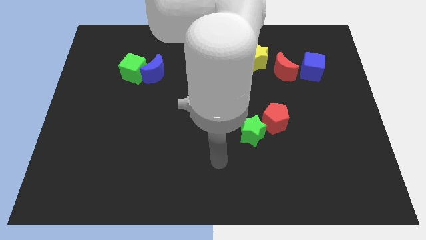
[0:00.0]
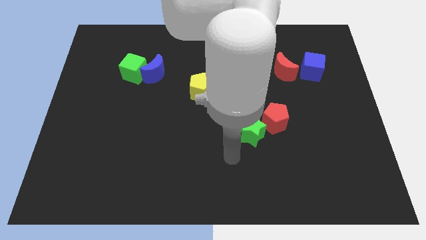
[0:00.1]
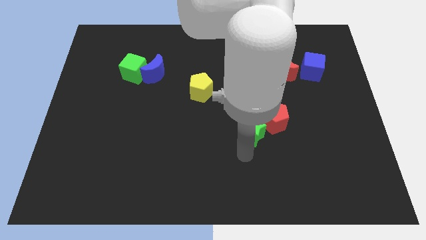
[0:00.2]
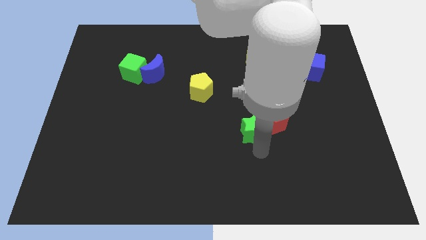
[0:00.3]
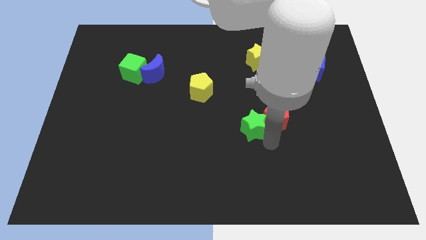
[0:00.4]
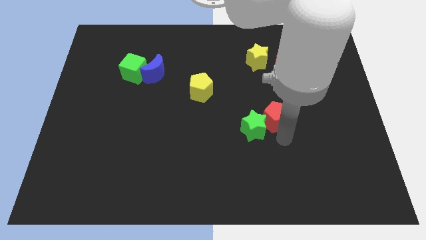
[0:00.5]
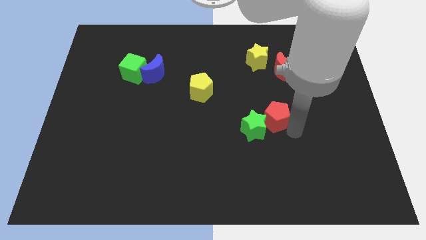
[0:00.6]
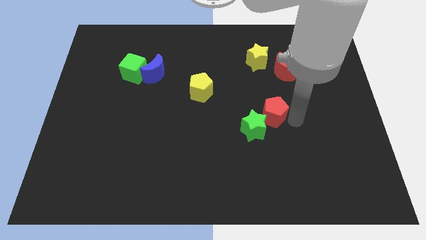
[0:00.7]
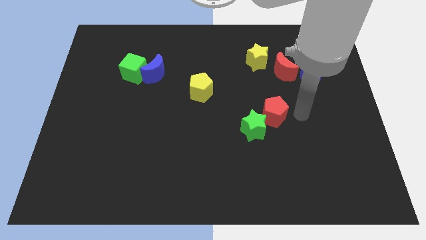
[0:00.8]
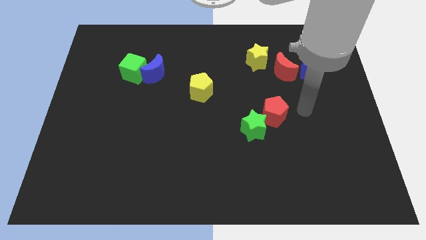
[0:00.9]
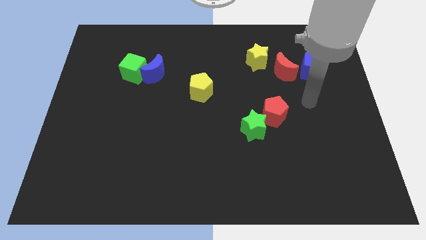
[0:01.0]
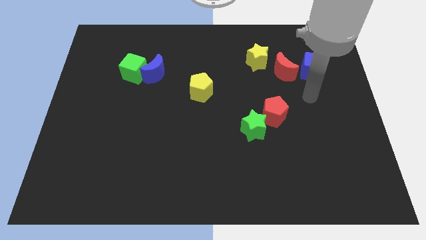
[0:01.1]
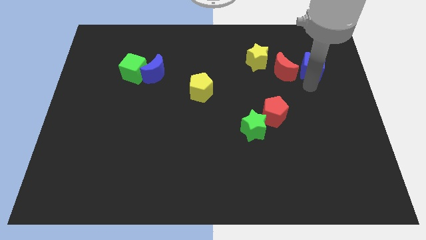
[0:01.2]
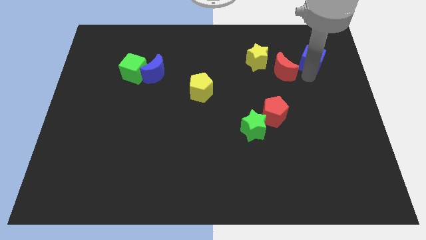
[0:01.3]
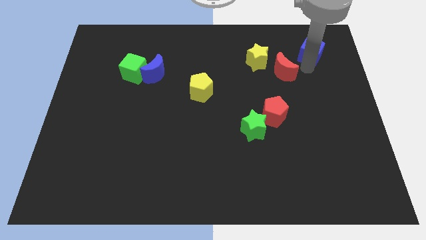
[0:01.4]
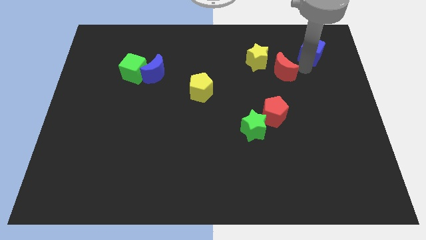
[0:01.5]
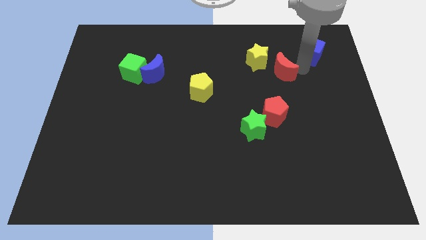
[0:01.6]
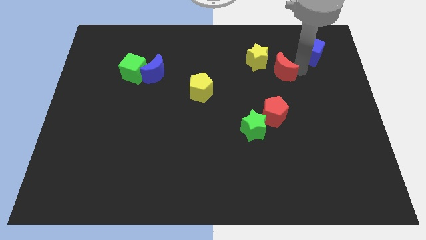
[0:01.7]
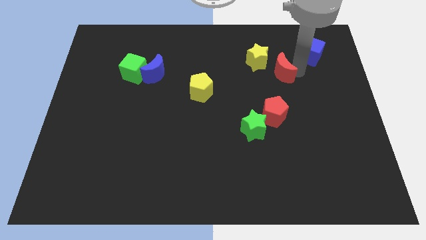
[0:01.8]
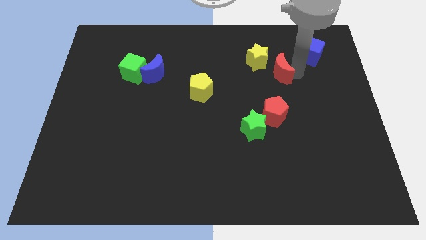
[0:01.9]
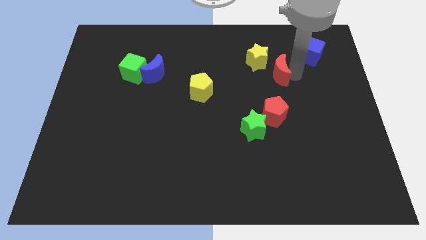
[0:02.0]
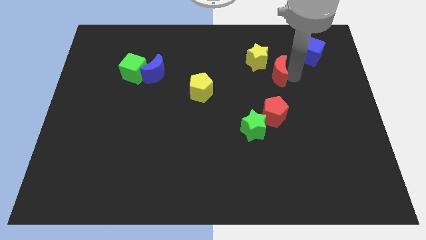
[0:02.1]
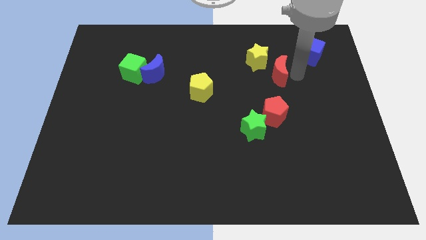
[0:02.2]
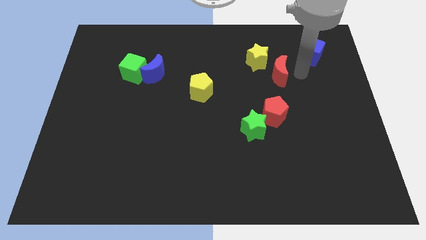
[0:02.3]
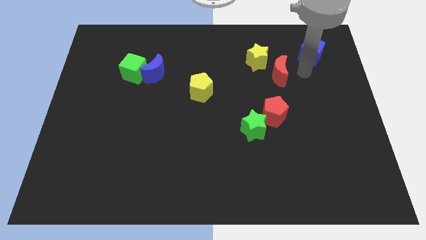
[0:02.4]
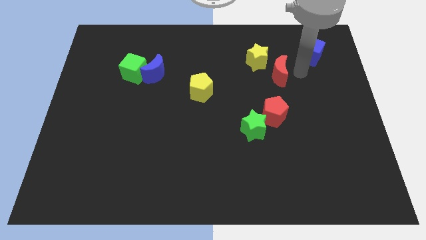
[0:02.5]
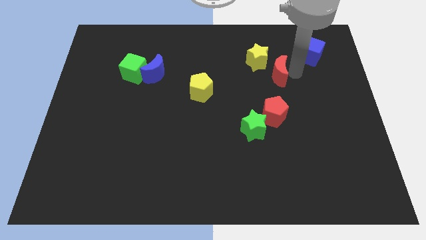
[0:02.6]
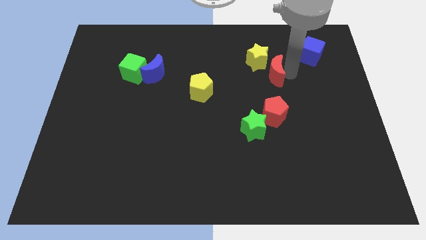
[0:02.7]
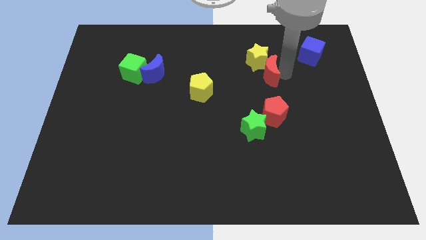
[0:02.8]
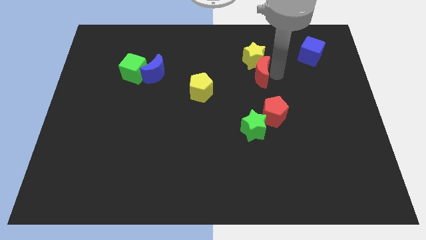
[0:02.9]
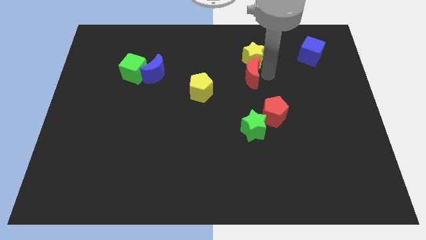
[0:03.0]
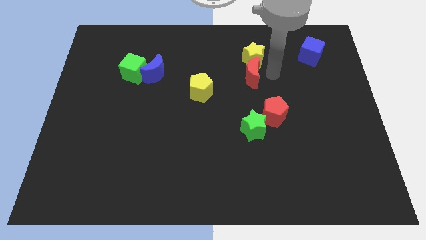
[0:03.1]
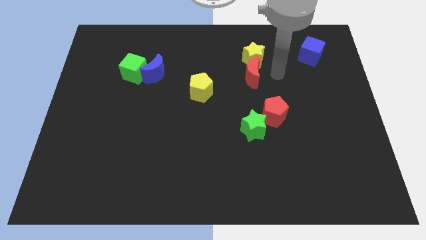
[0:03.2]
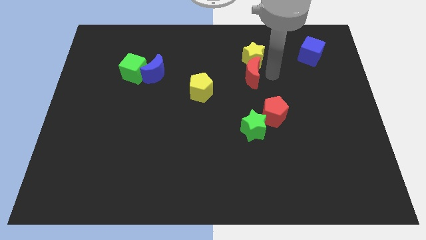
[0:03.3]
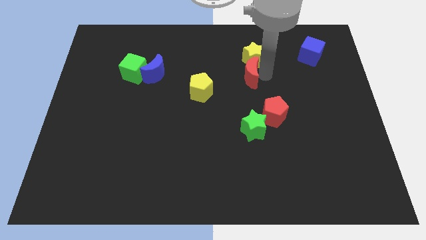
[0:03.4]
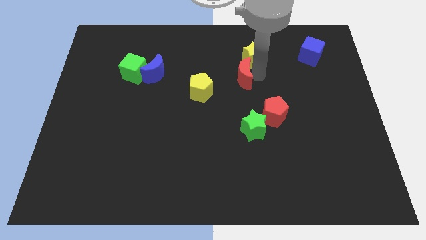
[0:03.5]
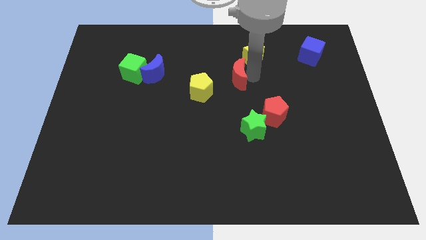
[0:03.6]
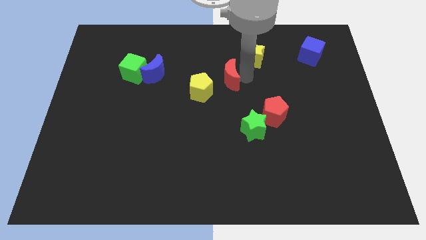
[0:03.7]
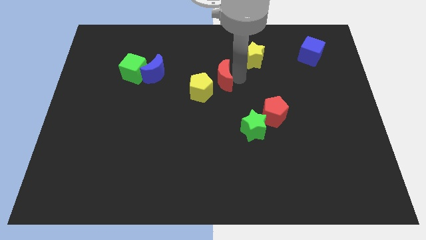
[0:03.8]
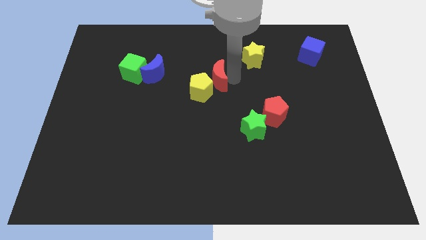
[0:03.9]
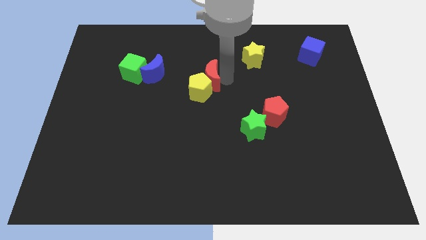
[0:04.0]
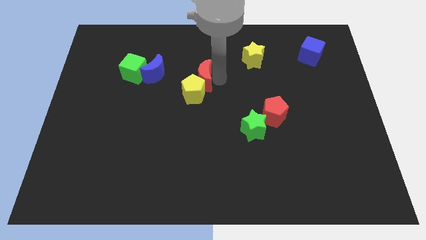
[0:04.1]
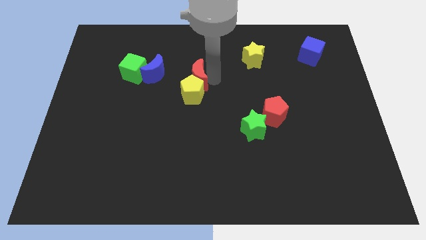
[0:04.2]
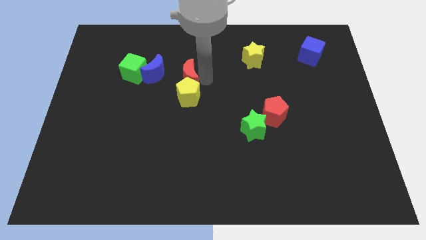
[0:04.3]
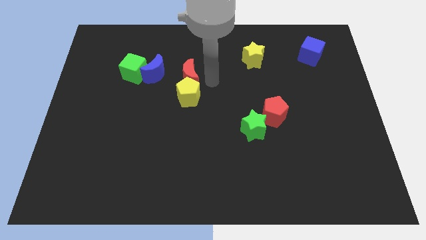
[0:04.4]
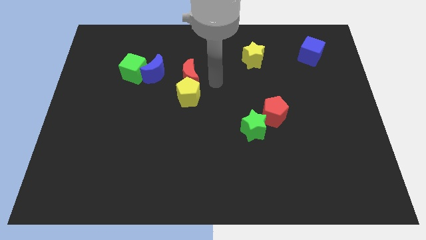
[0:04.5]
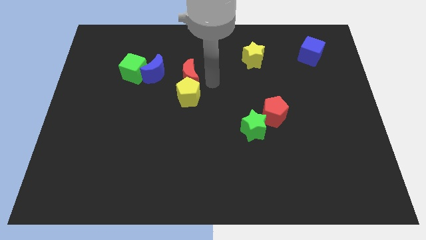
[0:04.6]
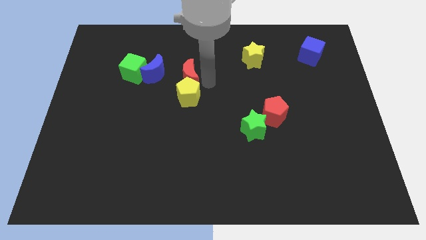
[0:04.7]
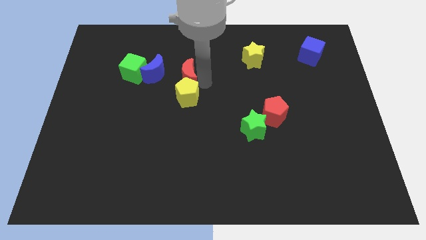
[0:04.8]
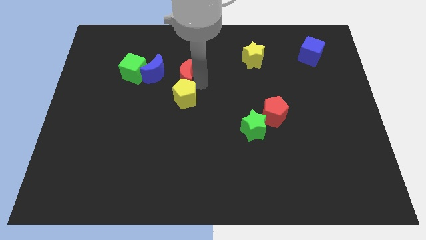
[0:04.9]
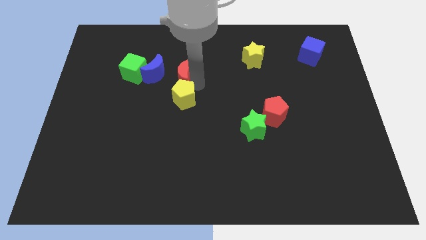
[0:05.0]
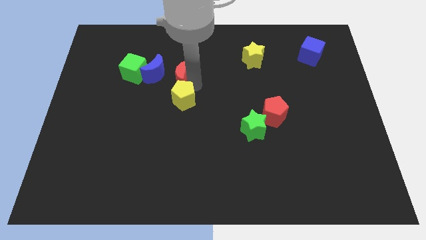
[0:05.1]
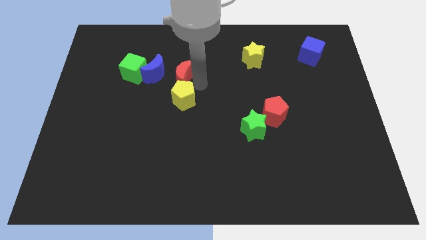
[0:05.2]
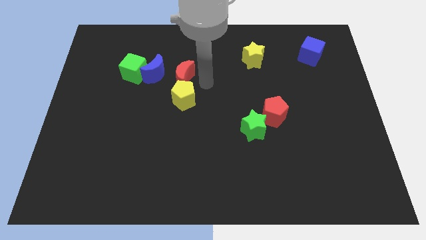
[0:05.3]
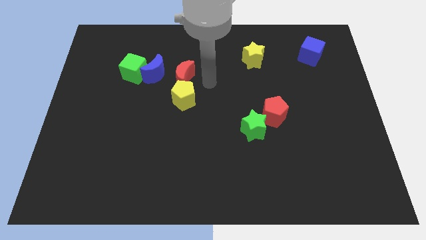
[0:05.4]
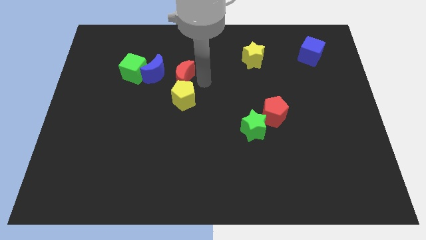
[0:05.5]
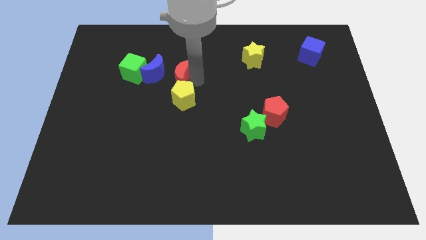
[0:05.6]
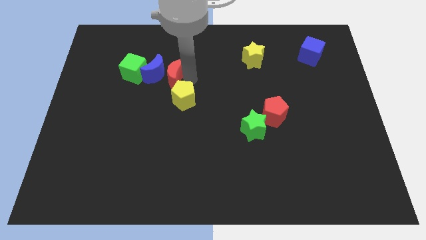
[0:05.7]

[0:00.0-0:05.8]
slide the red moon to the blue moon

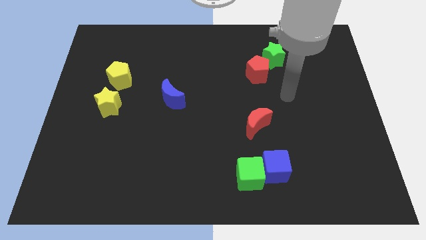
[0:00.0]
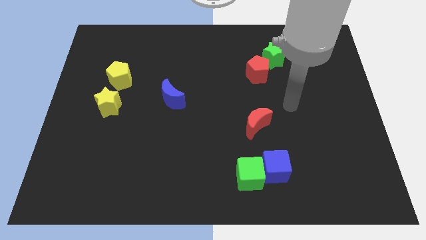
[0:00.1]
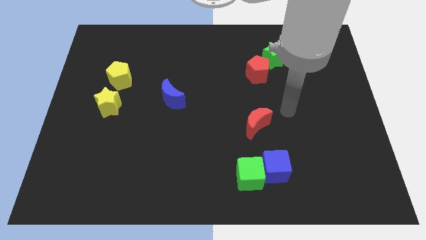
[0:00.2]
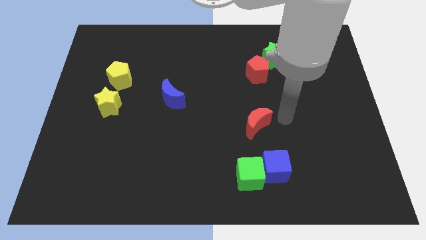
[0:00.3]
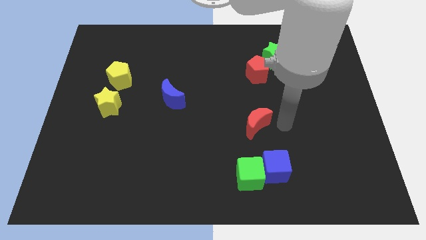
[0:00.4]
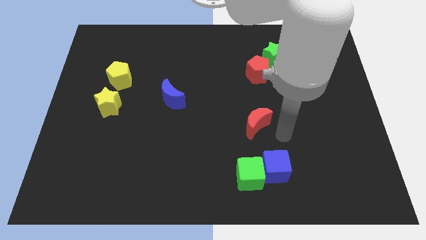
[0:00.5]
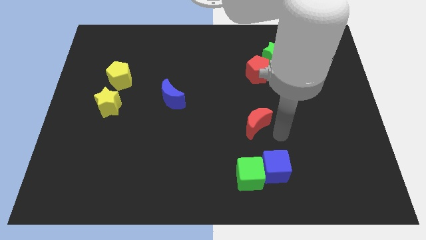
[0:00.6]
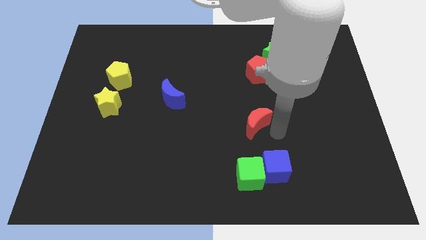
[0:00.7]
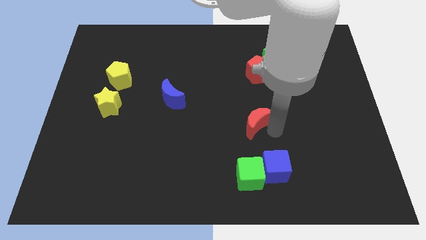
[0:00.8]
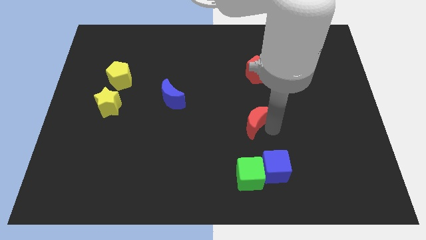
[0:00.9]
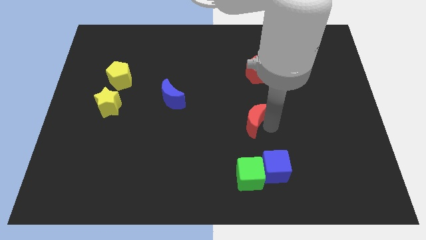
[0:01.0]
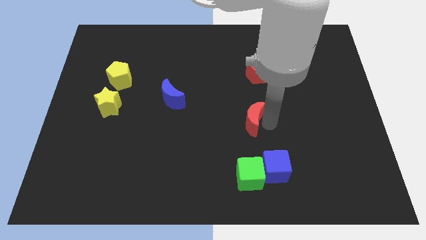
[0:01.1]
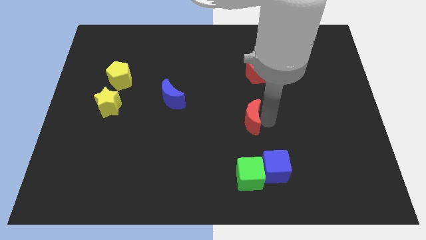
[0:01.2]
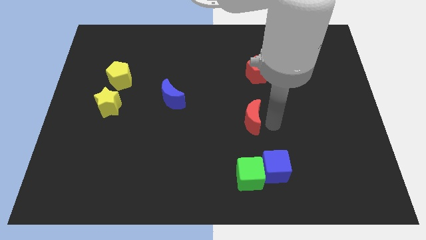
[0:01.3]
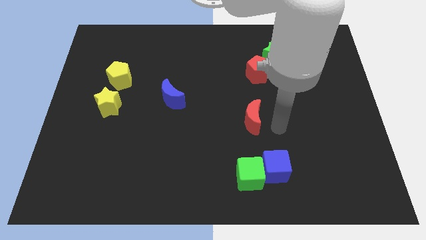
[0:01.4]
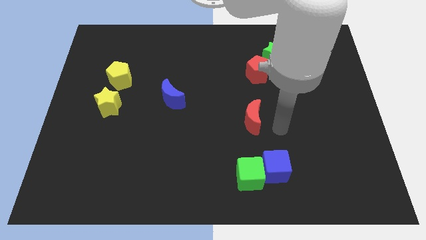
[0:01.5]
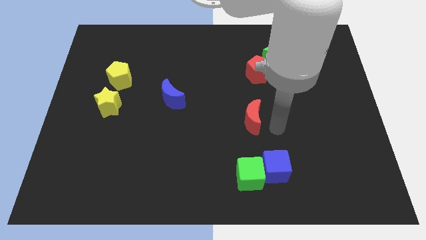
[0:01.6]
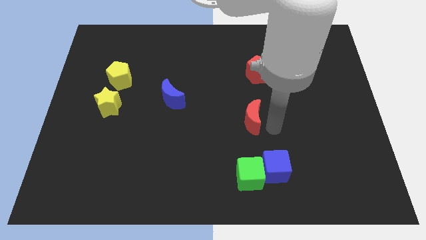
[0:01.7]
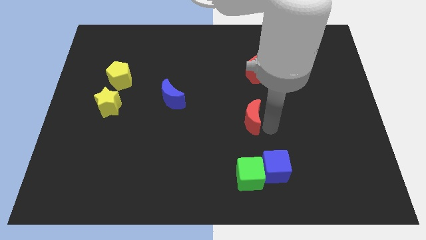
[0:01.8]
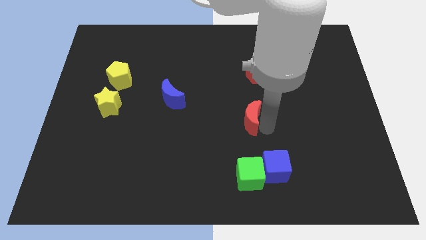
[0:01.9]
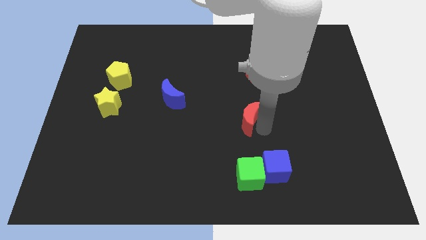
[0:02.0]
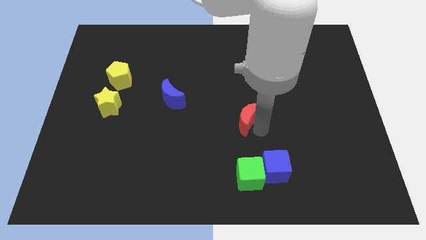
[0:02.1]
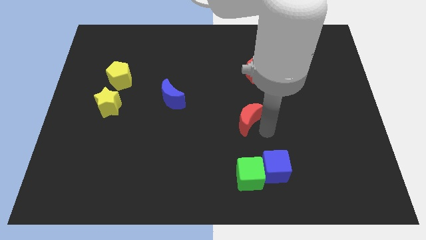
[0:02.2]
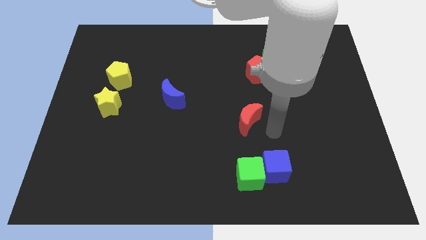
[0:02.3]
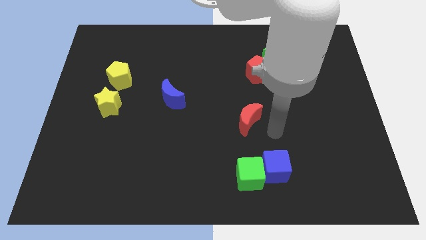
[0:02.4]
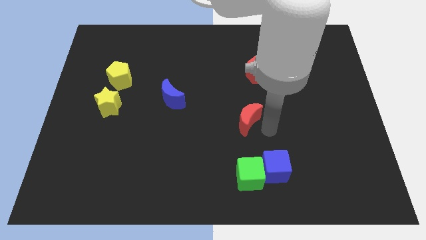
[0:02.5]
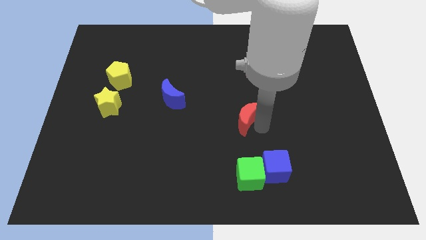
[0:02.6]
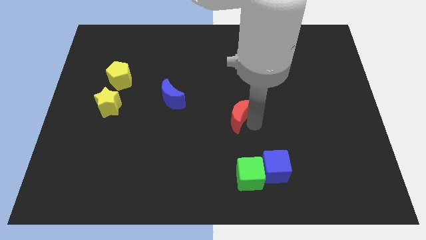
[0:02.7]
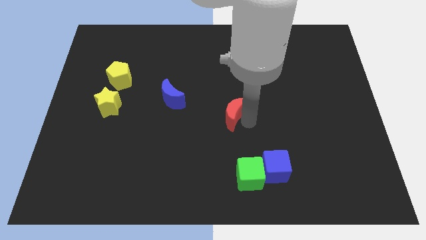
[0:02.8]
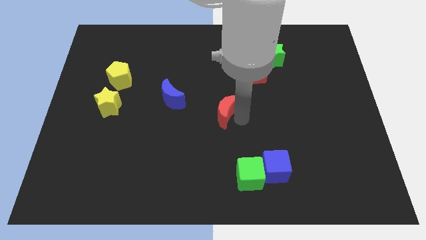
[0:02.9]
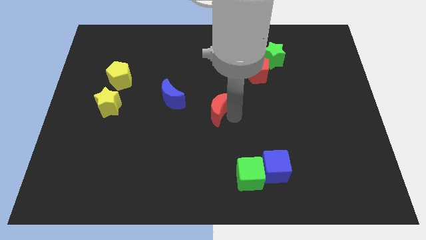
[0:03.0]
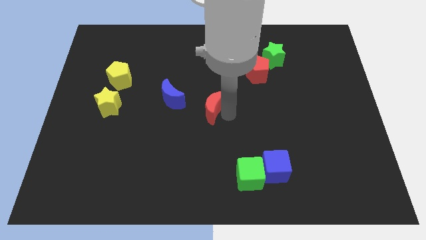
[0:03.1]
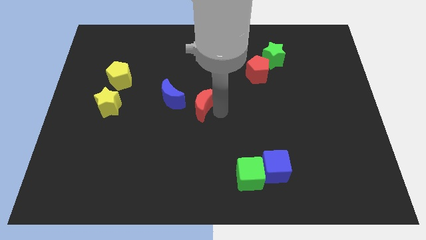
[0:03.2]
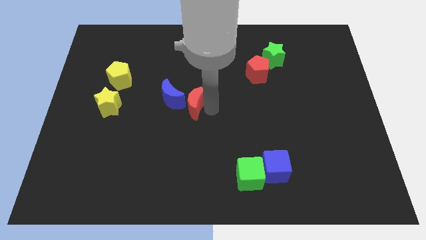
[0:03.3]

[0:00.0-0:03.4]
put the red moon next to the blue moon
